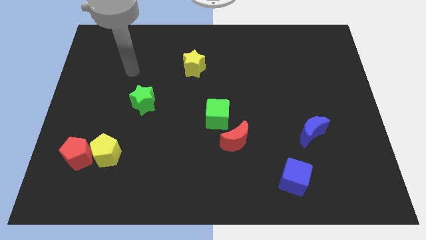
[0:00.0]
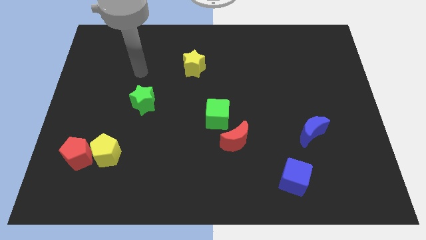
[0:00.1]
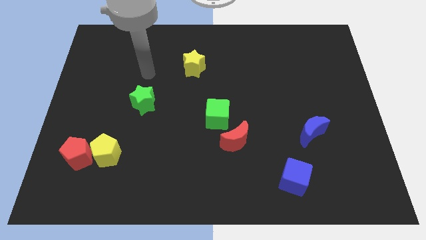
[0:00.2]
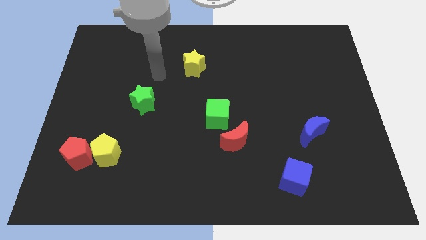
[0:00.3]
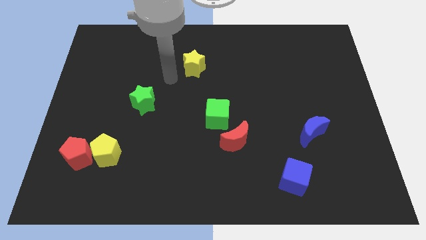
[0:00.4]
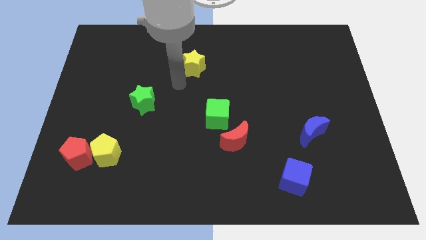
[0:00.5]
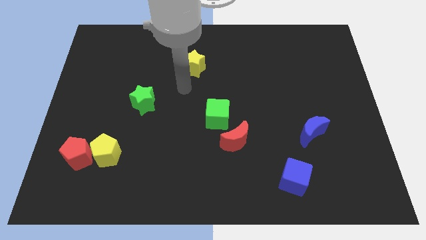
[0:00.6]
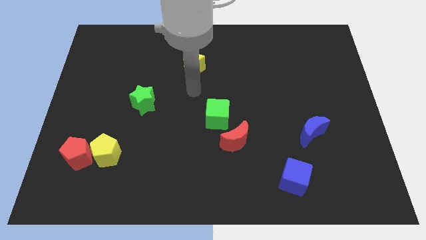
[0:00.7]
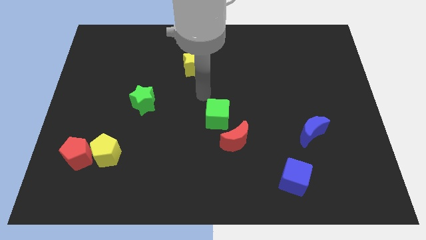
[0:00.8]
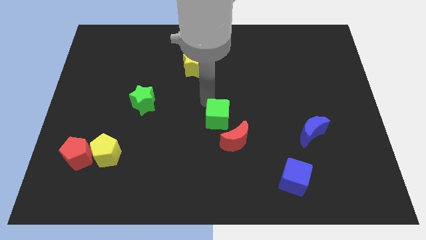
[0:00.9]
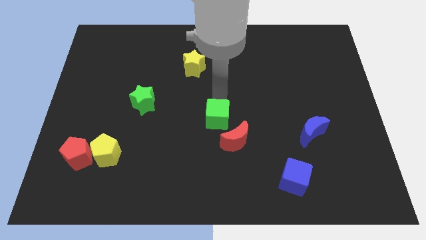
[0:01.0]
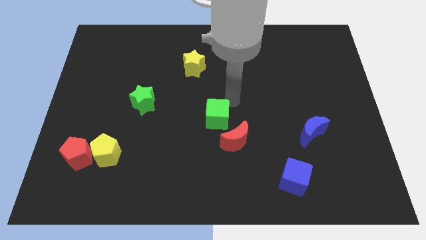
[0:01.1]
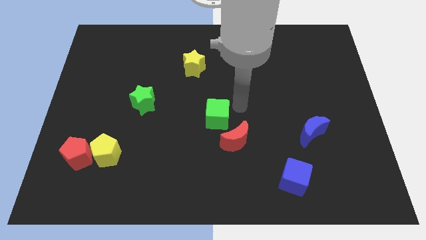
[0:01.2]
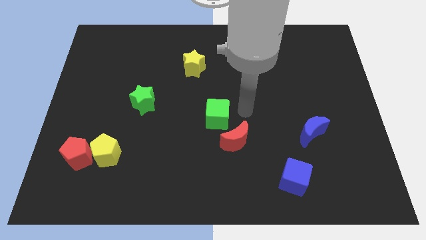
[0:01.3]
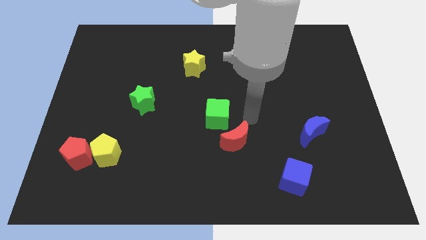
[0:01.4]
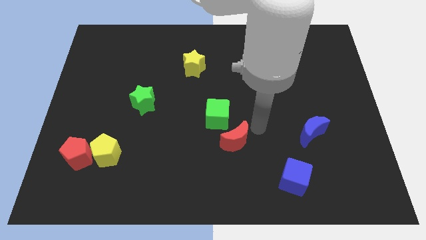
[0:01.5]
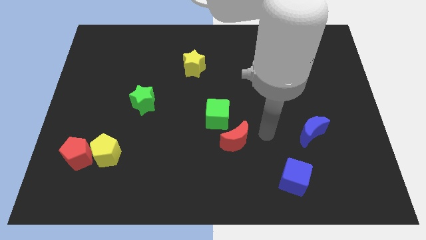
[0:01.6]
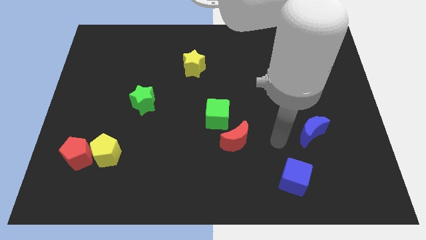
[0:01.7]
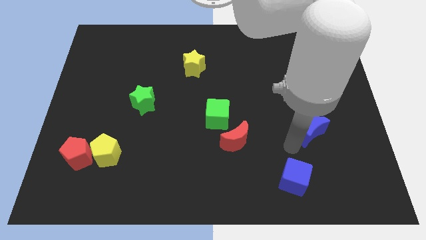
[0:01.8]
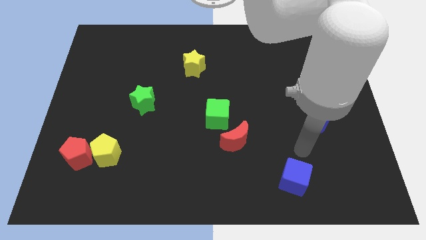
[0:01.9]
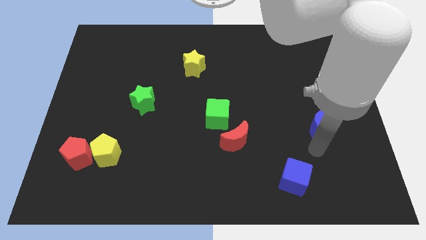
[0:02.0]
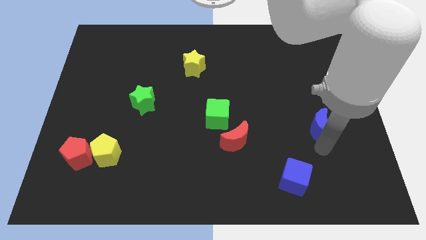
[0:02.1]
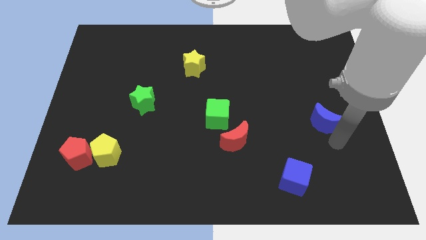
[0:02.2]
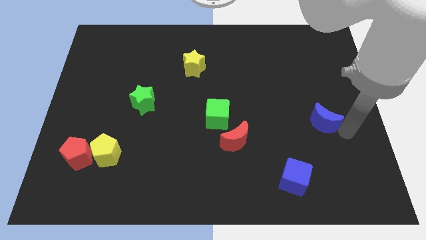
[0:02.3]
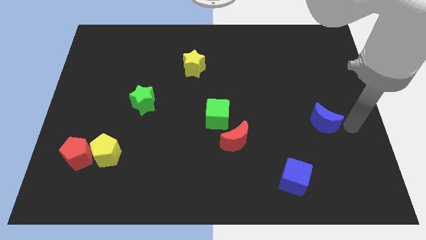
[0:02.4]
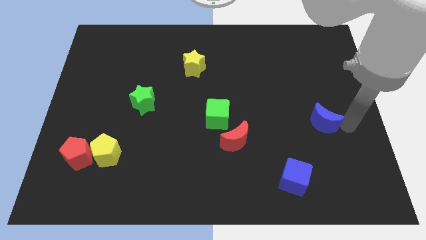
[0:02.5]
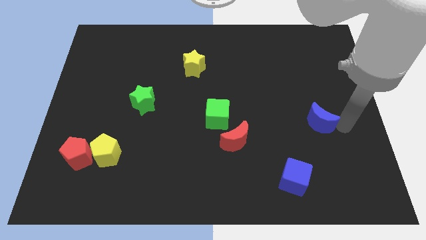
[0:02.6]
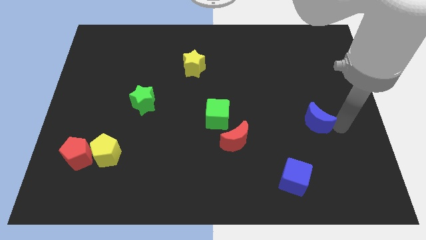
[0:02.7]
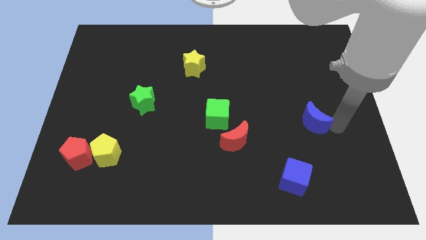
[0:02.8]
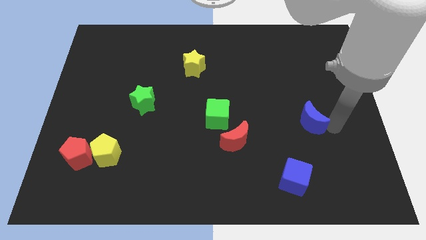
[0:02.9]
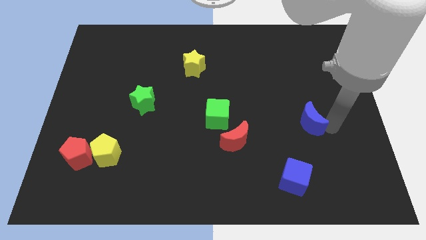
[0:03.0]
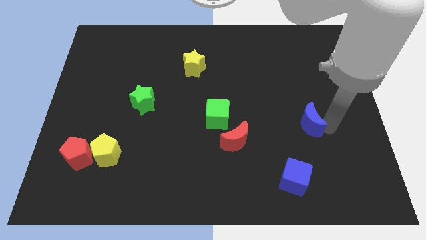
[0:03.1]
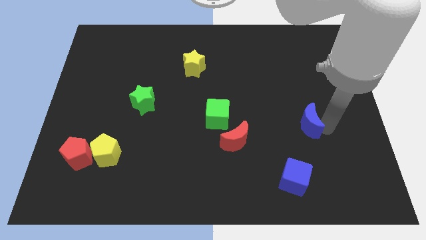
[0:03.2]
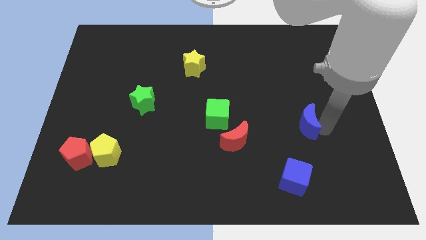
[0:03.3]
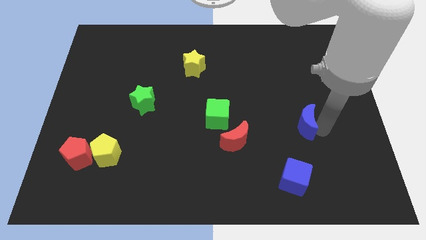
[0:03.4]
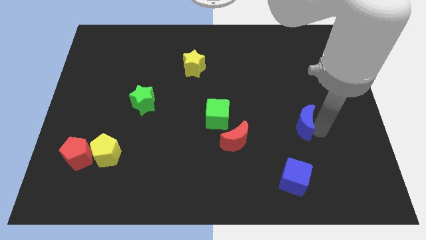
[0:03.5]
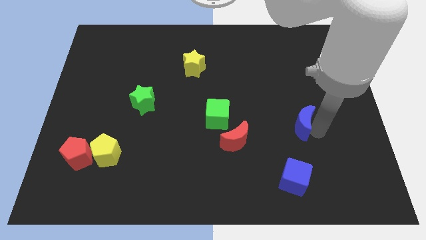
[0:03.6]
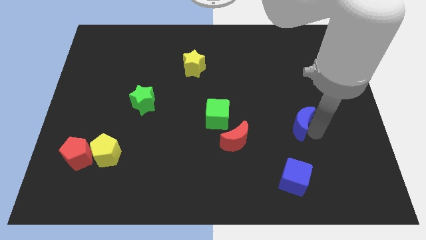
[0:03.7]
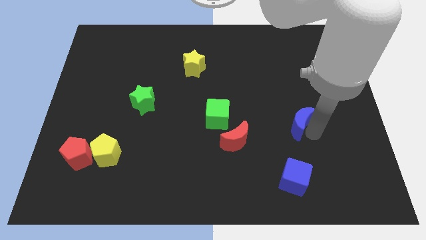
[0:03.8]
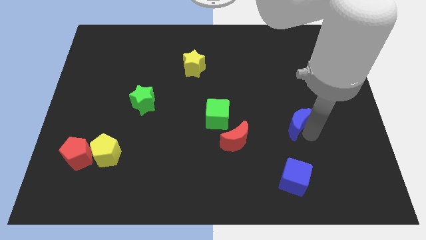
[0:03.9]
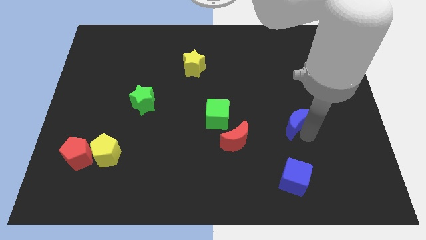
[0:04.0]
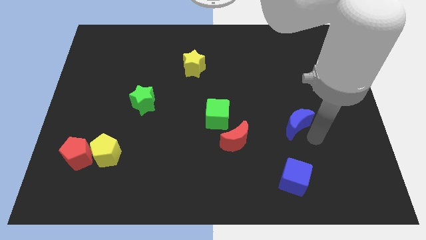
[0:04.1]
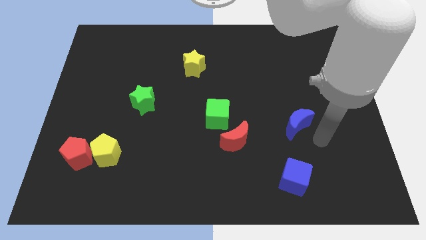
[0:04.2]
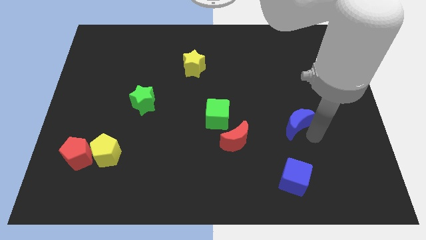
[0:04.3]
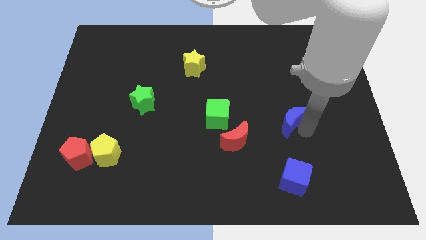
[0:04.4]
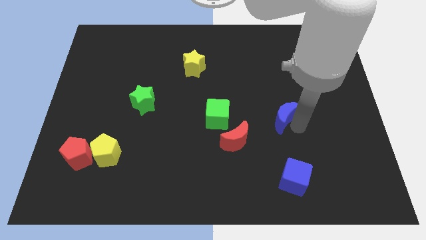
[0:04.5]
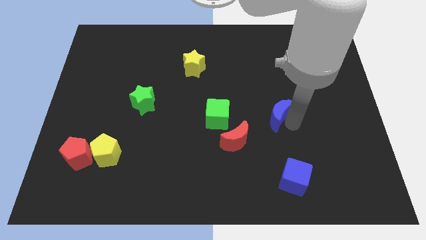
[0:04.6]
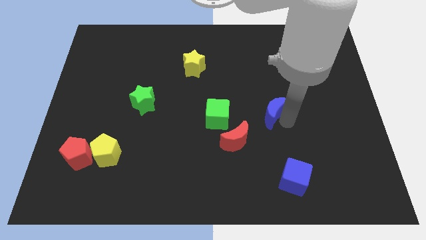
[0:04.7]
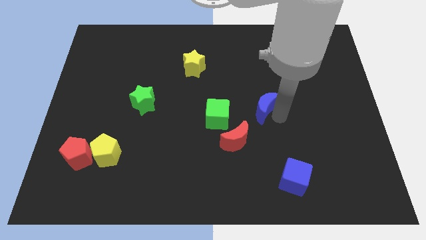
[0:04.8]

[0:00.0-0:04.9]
push the blue moon to the middle of the board

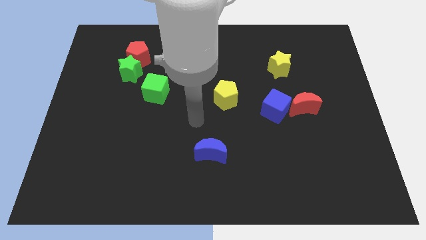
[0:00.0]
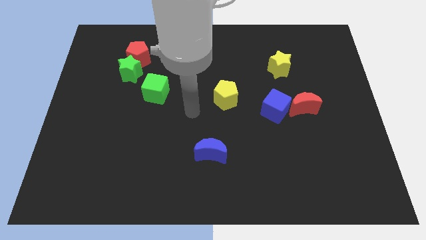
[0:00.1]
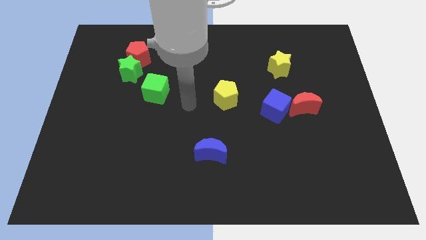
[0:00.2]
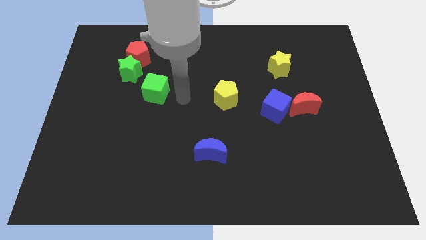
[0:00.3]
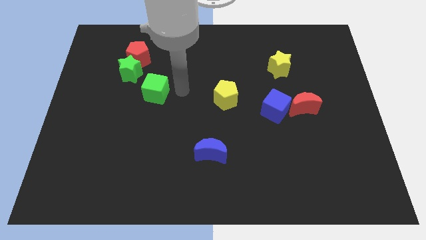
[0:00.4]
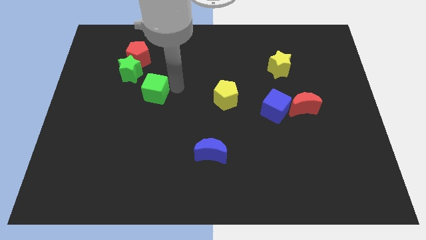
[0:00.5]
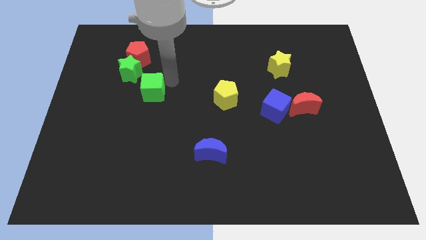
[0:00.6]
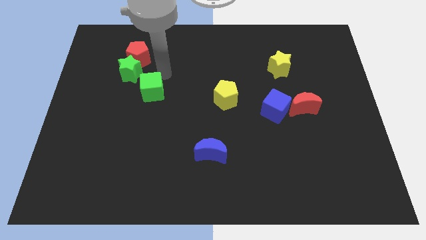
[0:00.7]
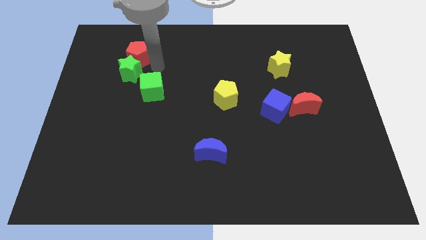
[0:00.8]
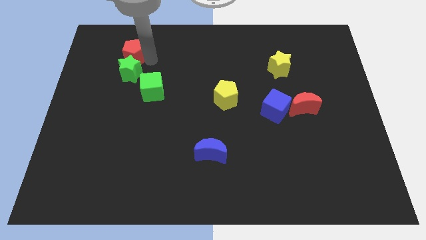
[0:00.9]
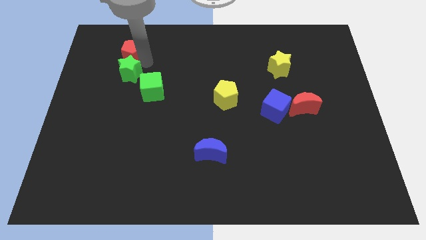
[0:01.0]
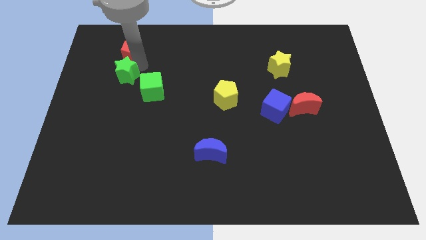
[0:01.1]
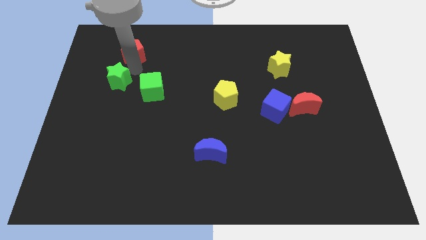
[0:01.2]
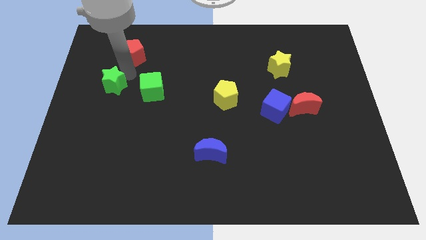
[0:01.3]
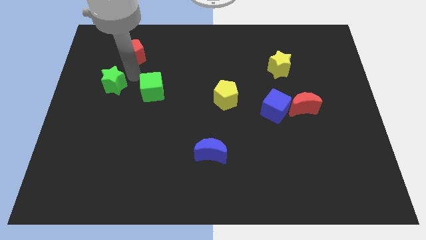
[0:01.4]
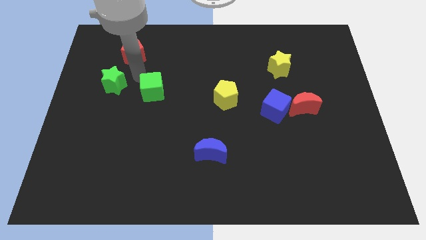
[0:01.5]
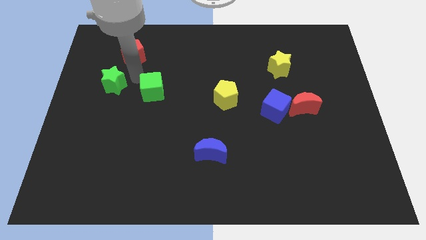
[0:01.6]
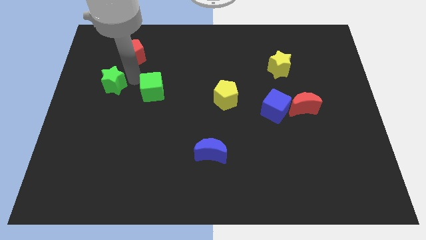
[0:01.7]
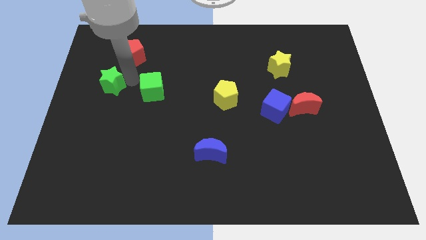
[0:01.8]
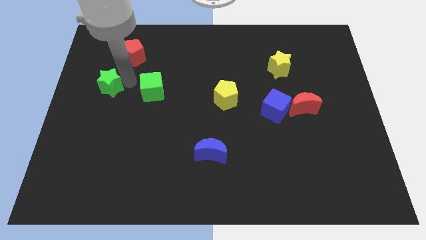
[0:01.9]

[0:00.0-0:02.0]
move the green star to the left side

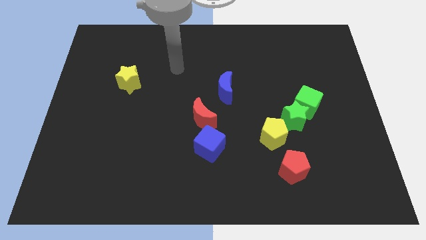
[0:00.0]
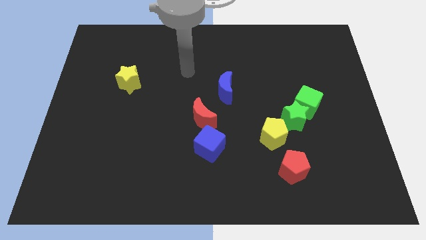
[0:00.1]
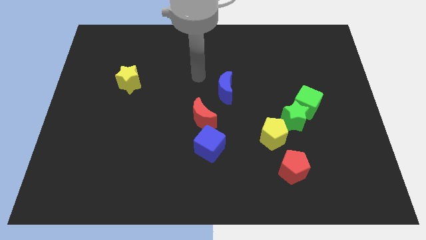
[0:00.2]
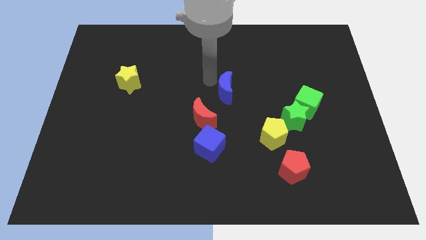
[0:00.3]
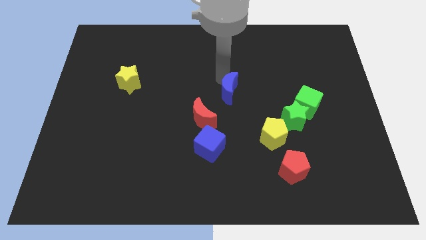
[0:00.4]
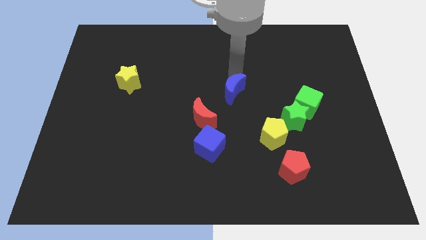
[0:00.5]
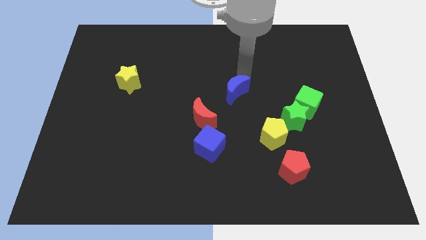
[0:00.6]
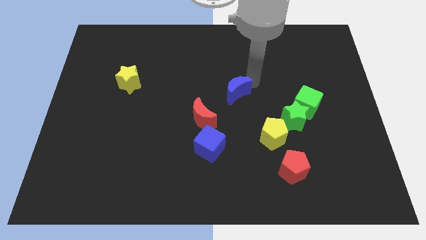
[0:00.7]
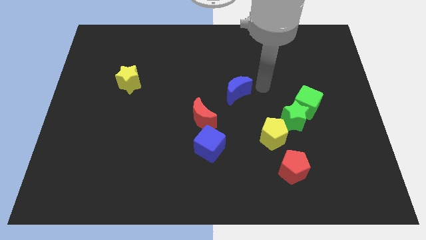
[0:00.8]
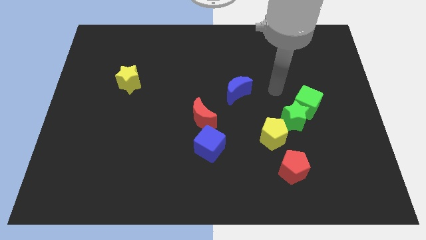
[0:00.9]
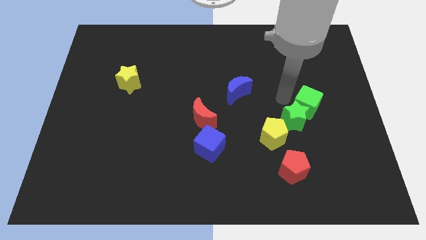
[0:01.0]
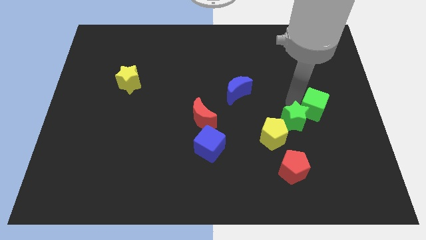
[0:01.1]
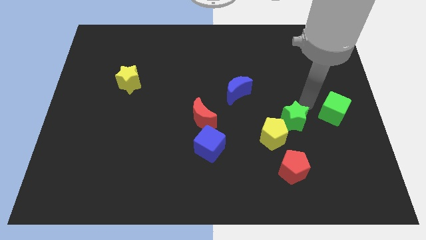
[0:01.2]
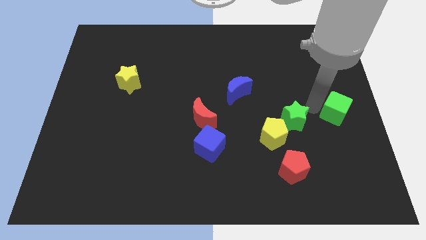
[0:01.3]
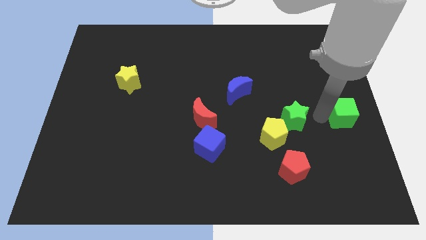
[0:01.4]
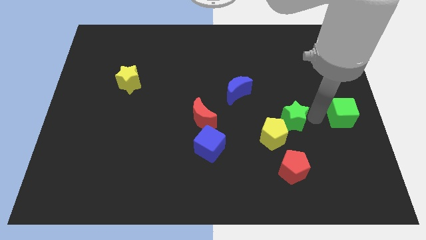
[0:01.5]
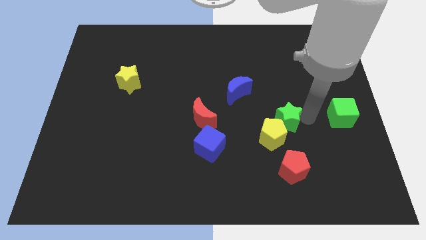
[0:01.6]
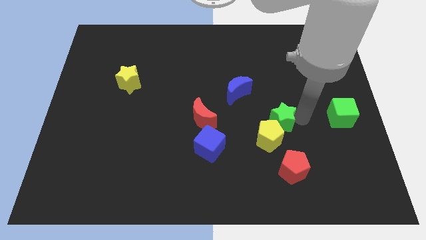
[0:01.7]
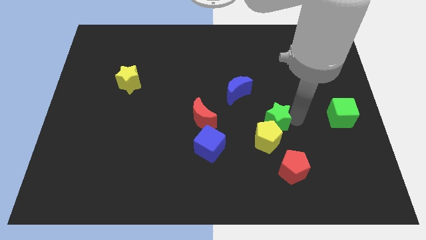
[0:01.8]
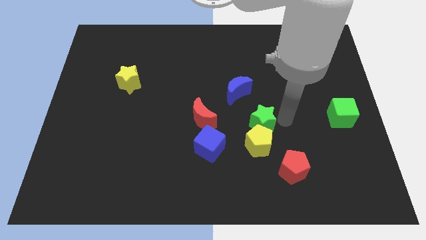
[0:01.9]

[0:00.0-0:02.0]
move the green star to the middle
